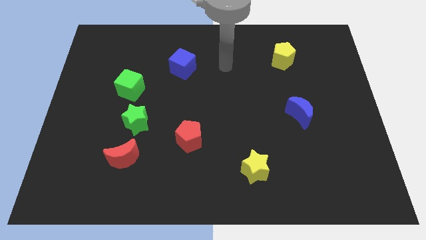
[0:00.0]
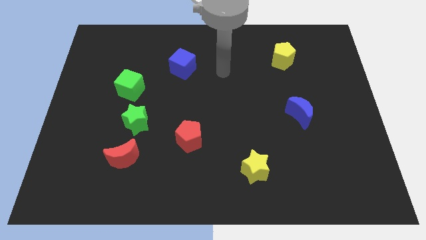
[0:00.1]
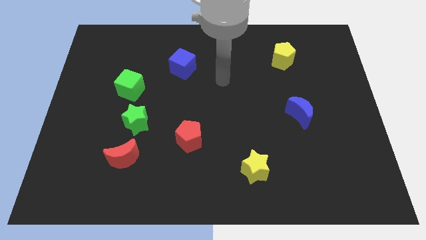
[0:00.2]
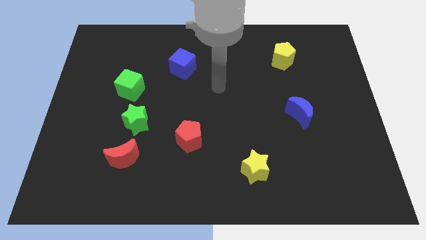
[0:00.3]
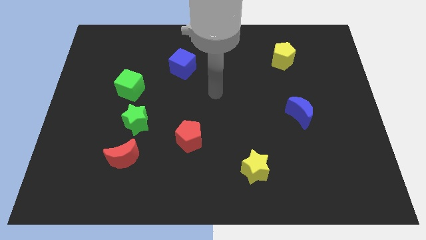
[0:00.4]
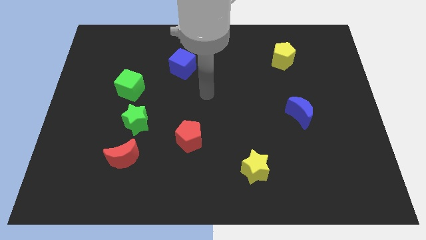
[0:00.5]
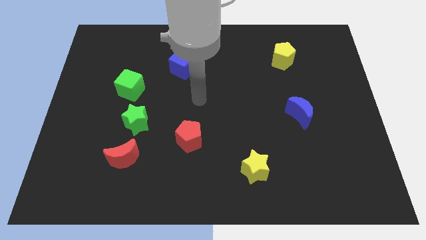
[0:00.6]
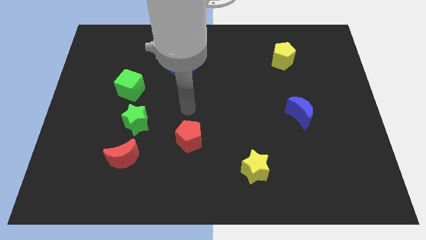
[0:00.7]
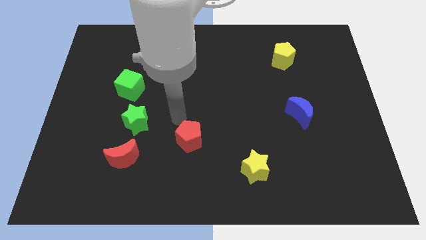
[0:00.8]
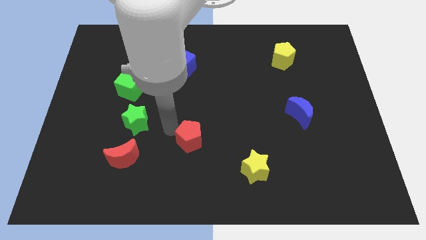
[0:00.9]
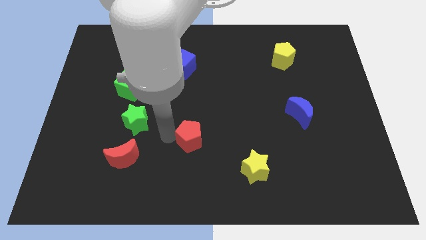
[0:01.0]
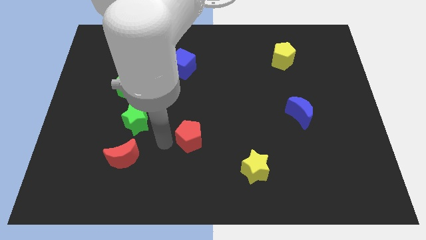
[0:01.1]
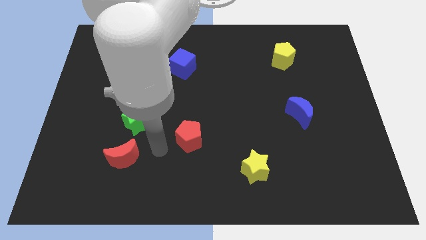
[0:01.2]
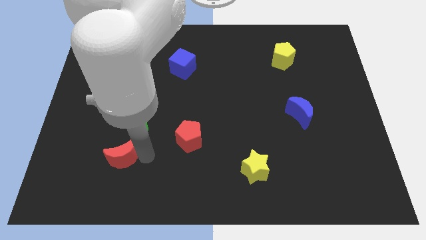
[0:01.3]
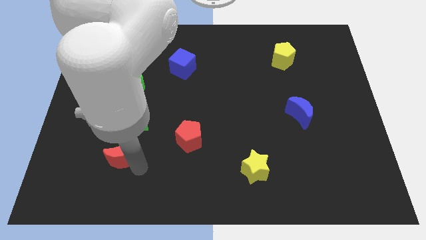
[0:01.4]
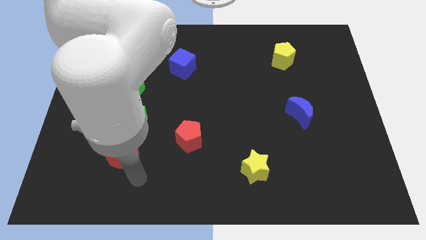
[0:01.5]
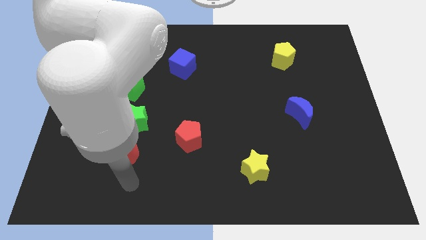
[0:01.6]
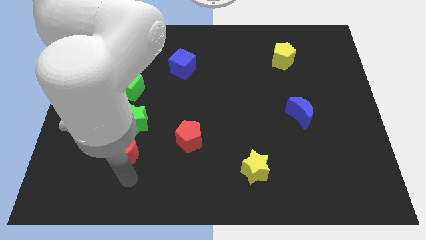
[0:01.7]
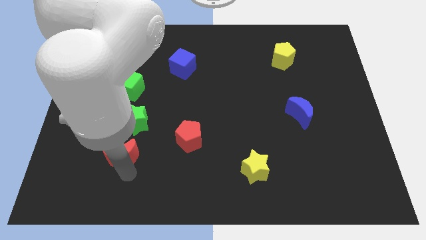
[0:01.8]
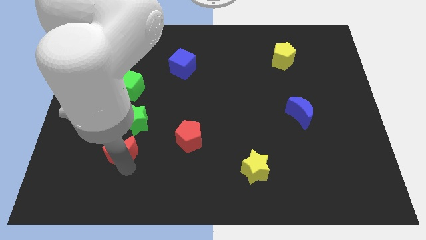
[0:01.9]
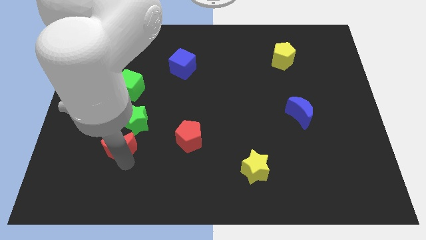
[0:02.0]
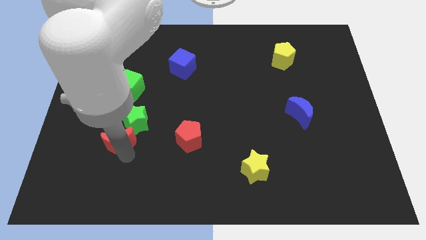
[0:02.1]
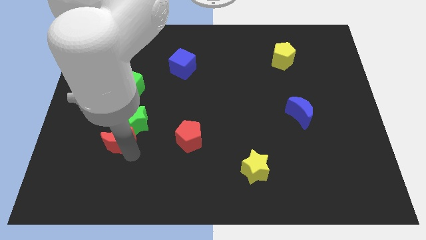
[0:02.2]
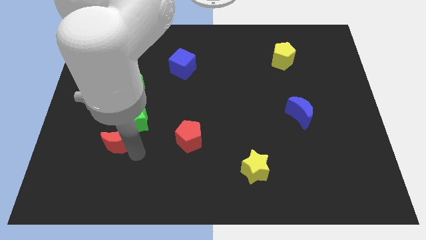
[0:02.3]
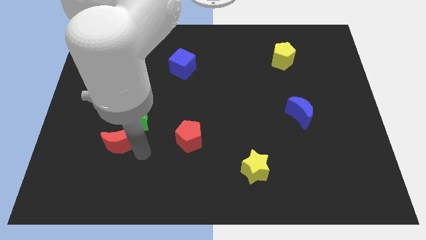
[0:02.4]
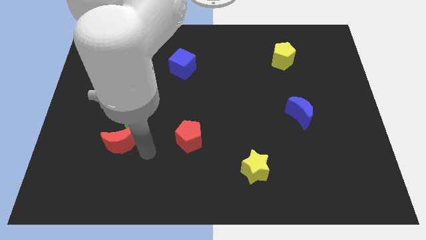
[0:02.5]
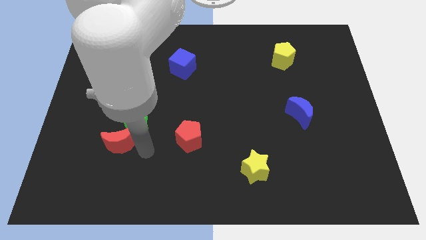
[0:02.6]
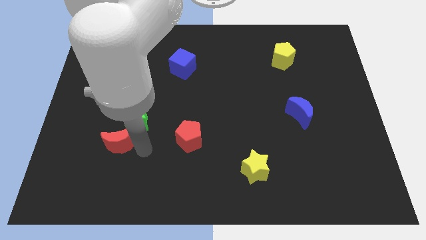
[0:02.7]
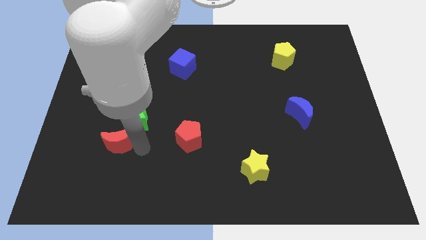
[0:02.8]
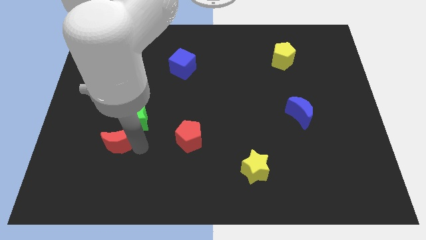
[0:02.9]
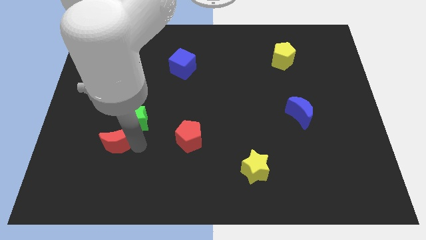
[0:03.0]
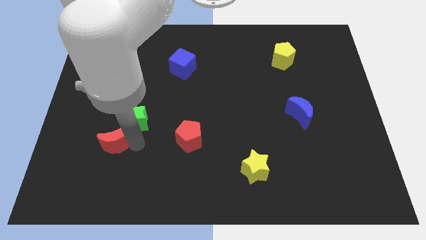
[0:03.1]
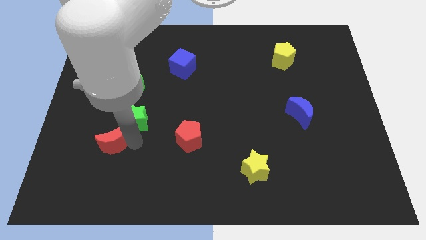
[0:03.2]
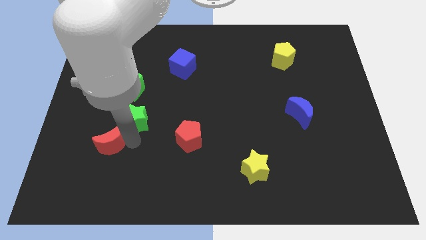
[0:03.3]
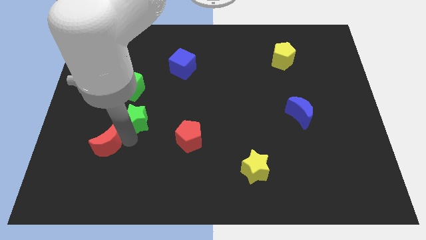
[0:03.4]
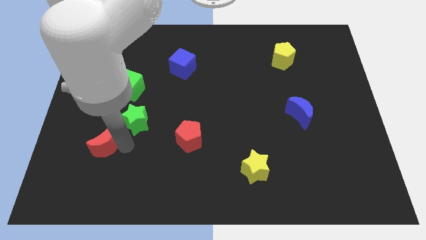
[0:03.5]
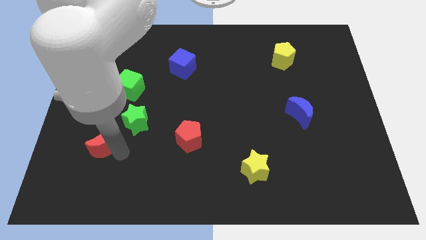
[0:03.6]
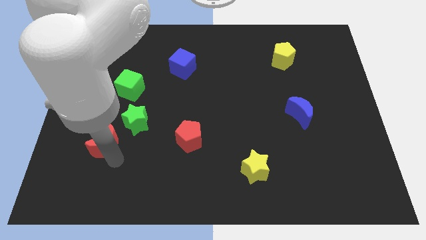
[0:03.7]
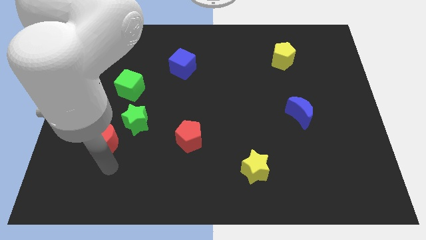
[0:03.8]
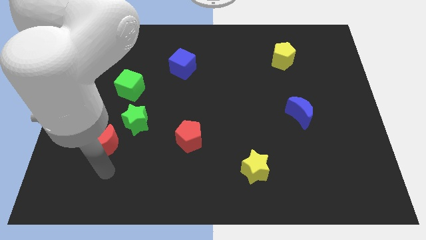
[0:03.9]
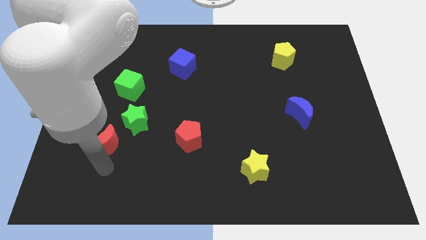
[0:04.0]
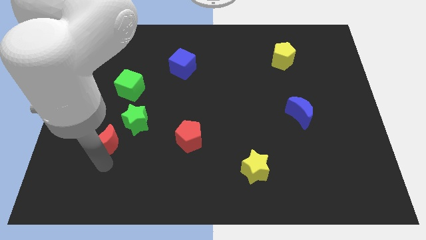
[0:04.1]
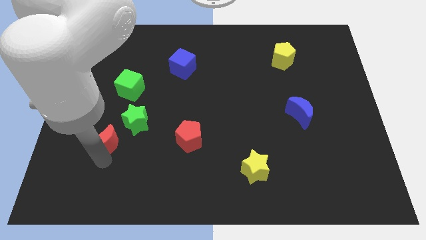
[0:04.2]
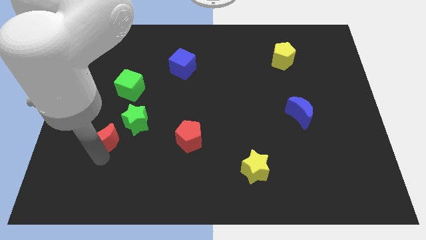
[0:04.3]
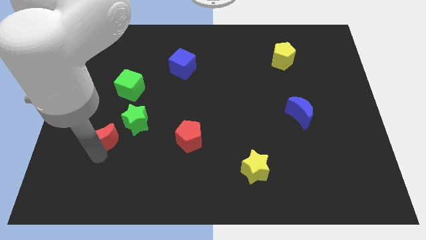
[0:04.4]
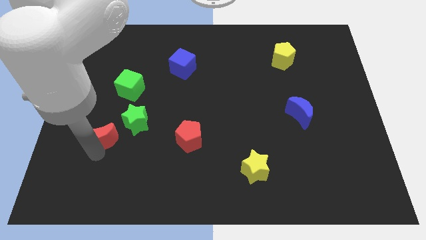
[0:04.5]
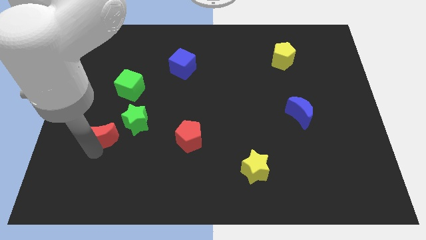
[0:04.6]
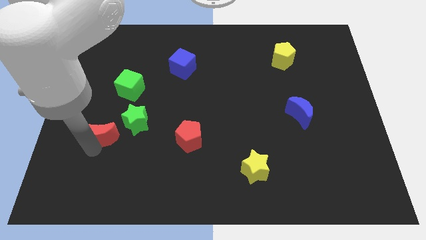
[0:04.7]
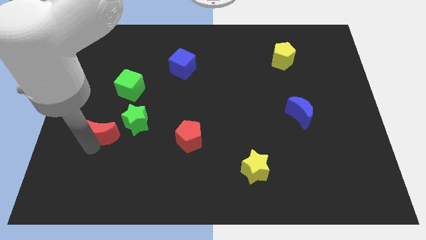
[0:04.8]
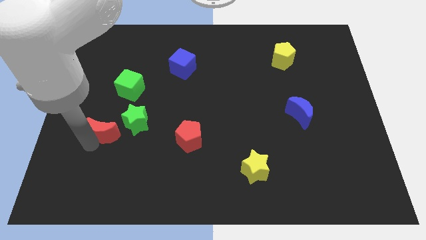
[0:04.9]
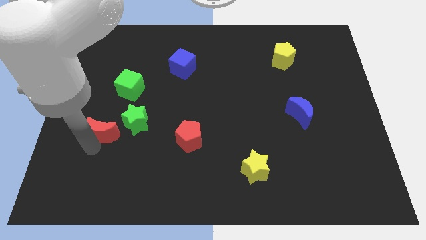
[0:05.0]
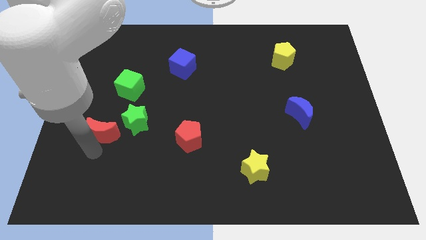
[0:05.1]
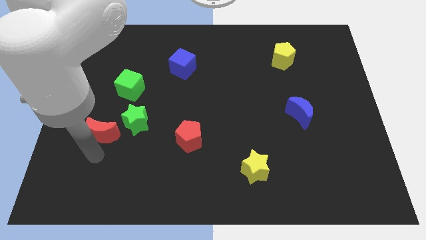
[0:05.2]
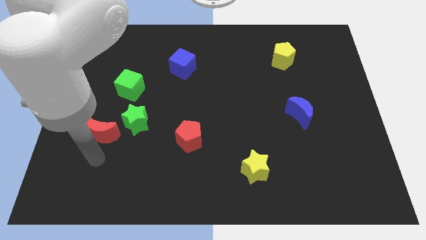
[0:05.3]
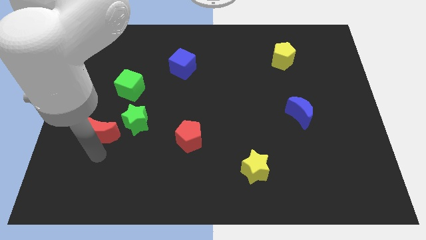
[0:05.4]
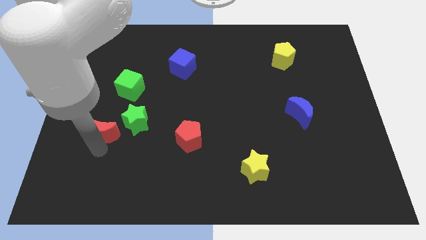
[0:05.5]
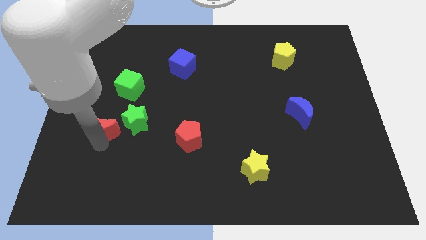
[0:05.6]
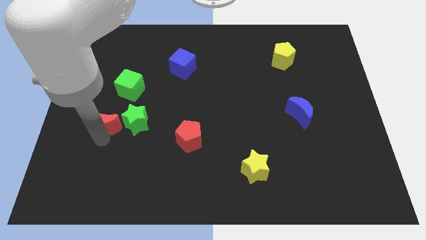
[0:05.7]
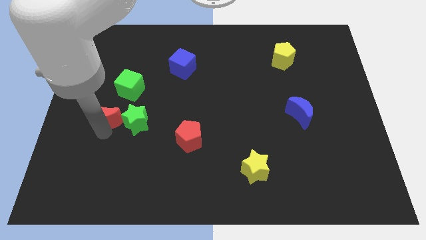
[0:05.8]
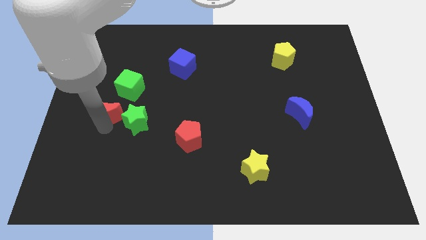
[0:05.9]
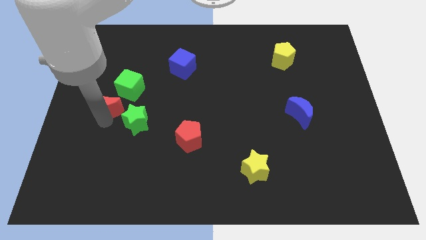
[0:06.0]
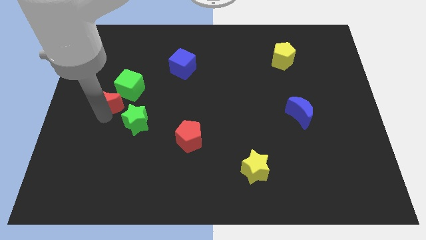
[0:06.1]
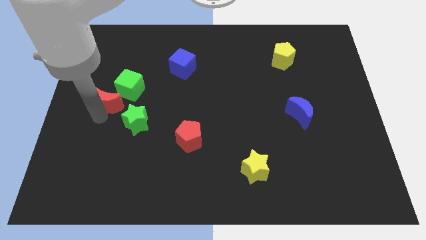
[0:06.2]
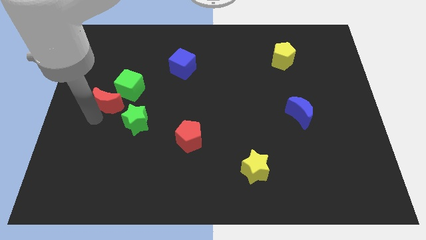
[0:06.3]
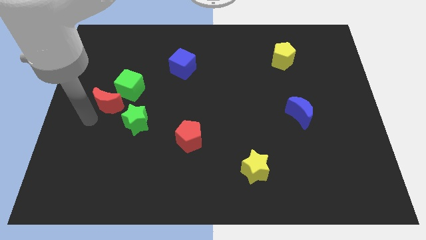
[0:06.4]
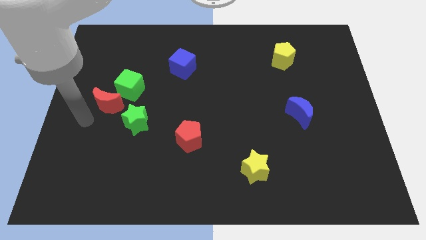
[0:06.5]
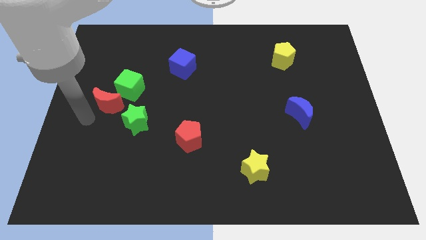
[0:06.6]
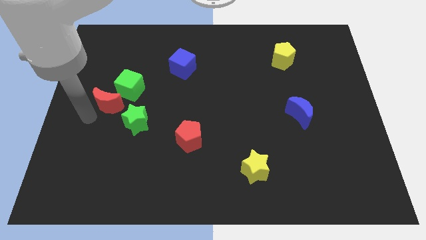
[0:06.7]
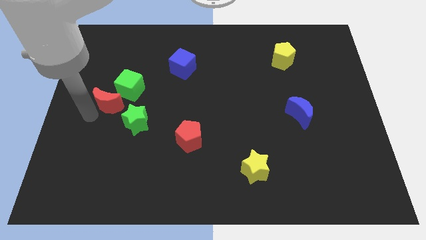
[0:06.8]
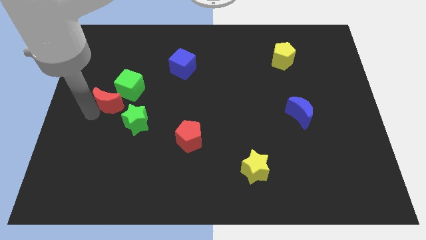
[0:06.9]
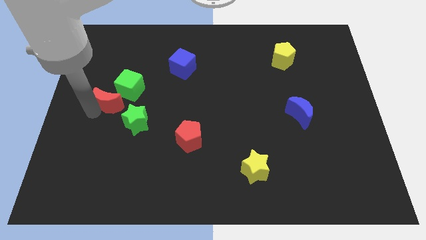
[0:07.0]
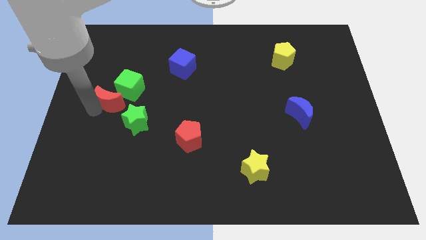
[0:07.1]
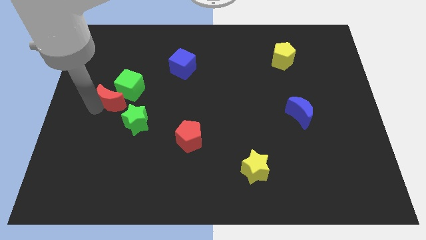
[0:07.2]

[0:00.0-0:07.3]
put the red moon to the green cube
